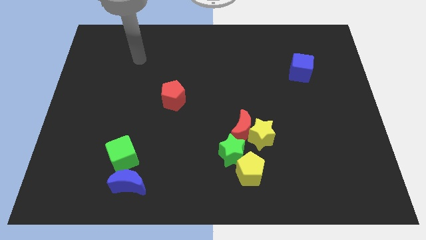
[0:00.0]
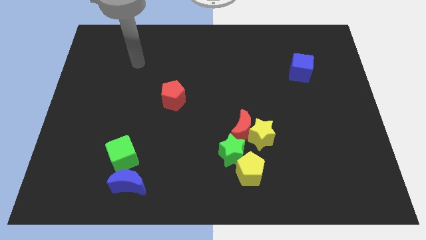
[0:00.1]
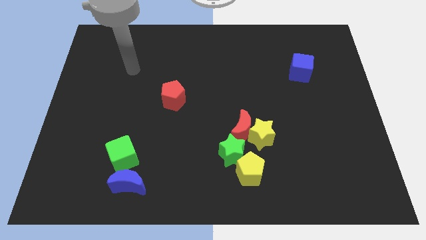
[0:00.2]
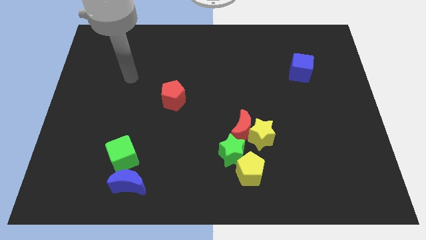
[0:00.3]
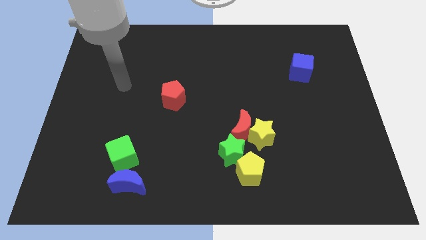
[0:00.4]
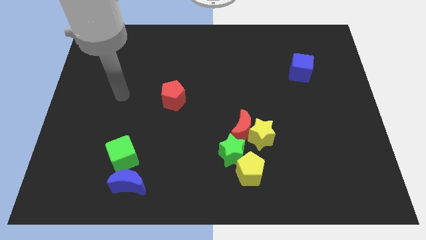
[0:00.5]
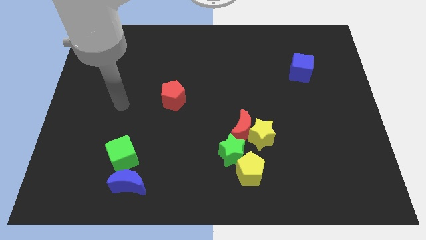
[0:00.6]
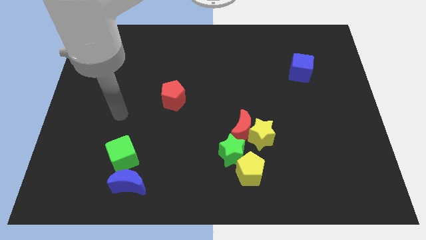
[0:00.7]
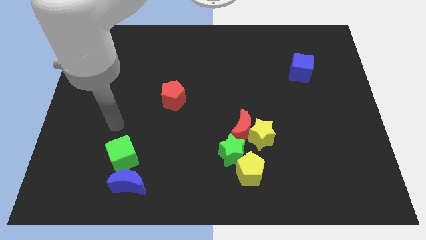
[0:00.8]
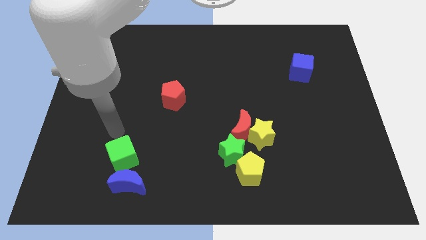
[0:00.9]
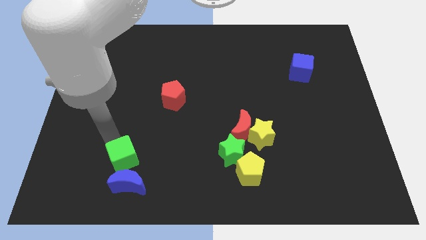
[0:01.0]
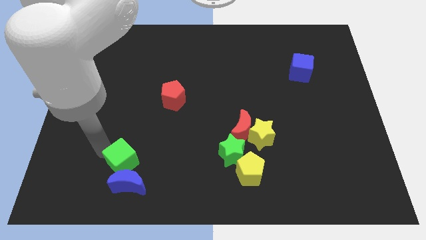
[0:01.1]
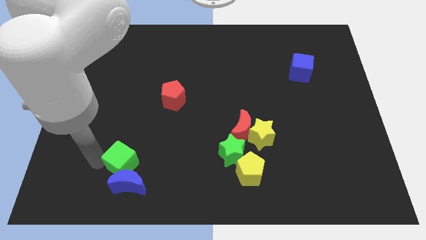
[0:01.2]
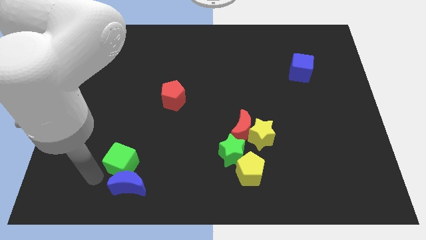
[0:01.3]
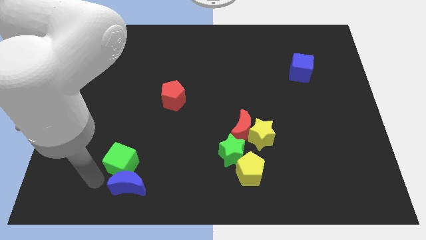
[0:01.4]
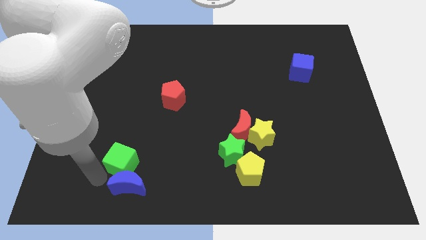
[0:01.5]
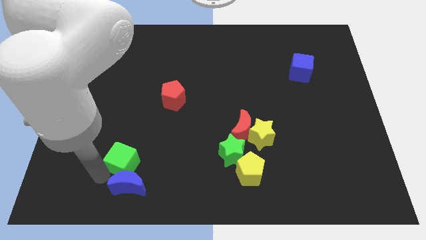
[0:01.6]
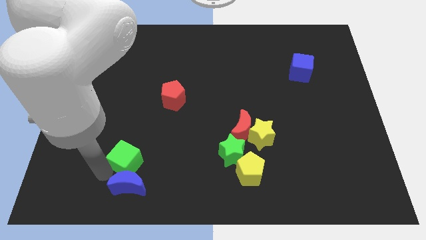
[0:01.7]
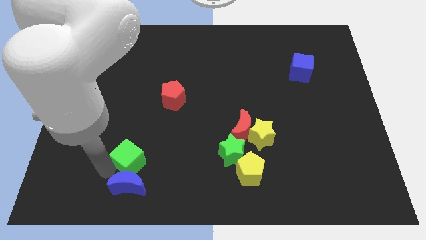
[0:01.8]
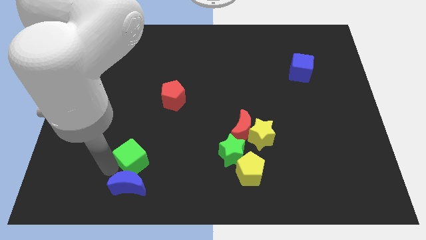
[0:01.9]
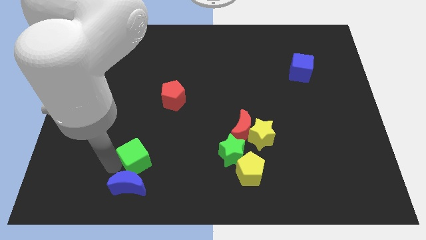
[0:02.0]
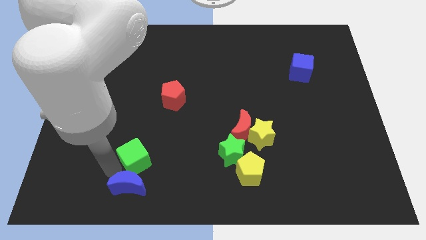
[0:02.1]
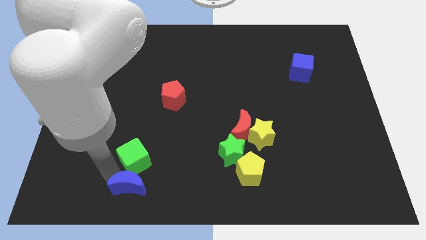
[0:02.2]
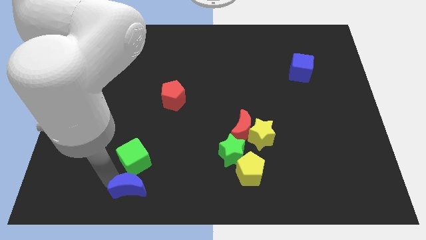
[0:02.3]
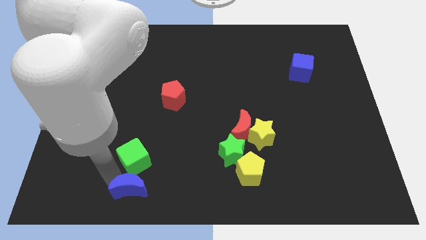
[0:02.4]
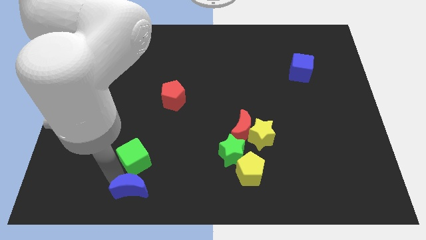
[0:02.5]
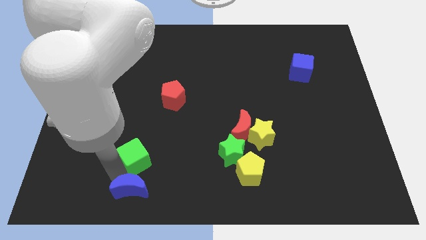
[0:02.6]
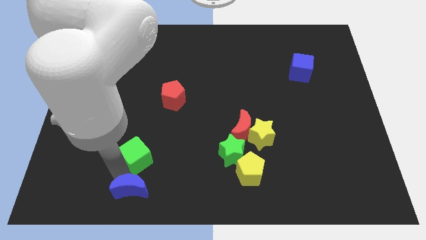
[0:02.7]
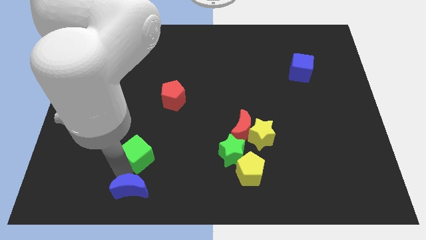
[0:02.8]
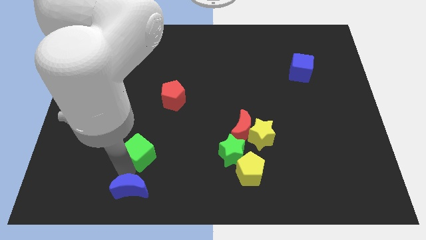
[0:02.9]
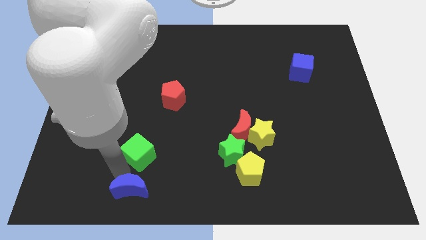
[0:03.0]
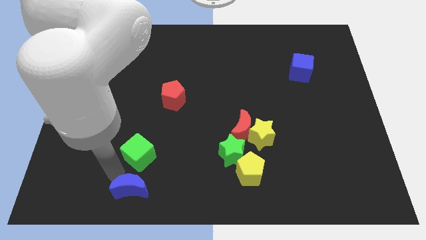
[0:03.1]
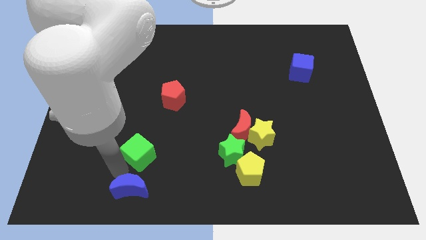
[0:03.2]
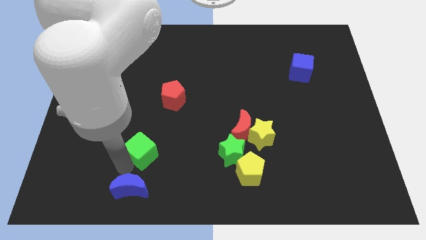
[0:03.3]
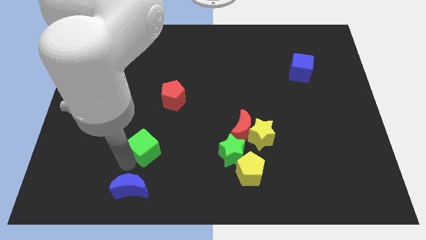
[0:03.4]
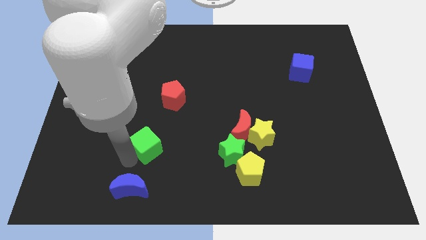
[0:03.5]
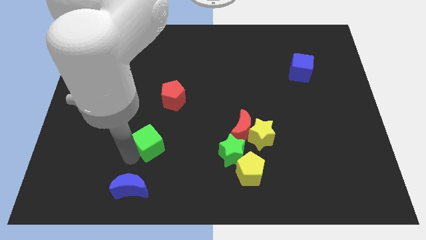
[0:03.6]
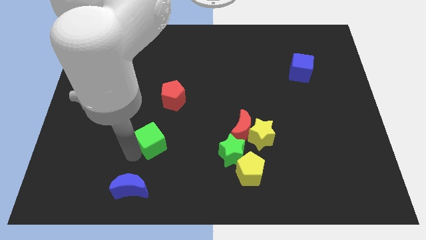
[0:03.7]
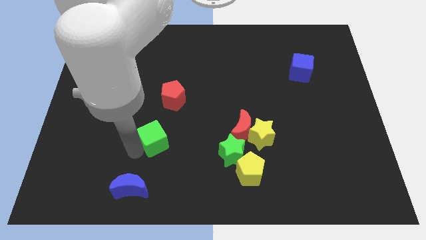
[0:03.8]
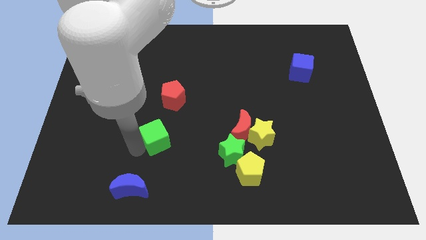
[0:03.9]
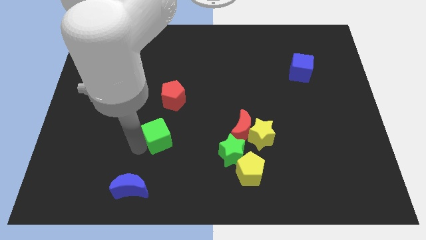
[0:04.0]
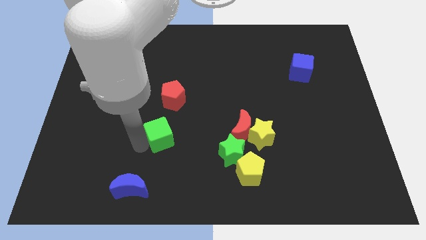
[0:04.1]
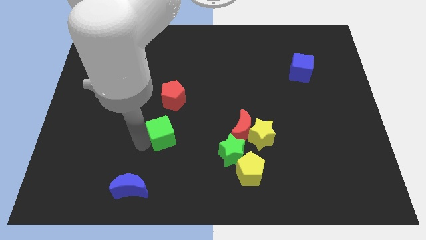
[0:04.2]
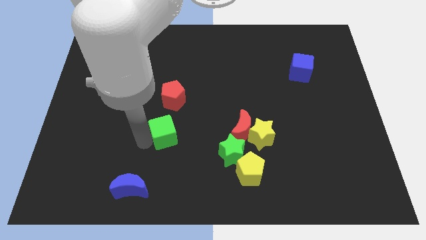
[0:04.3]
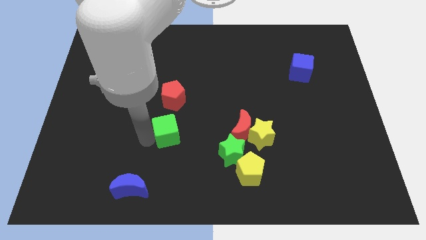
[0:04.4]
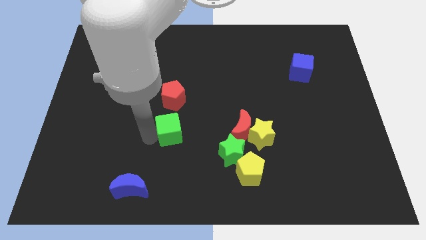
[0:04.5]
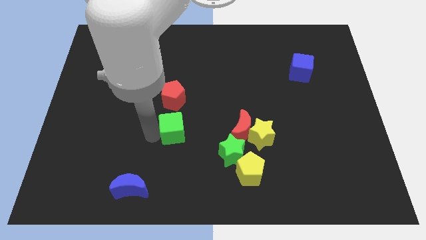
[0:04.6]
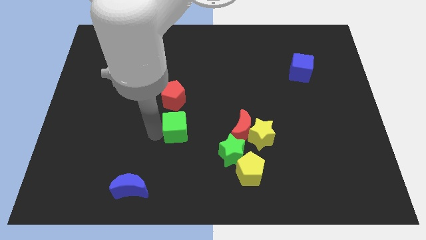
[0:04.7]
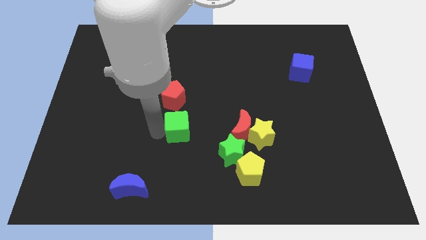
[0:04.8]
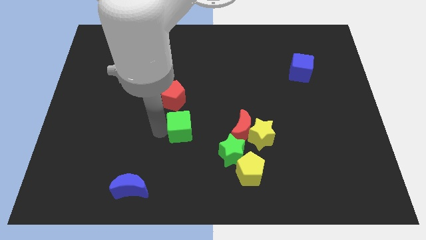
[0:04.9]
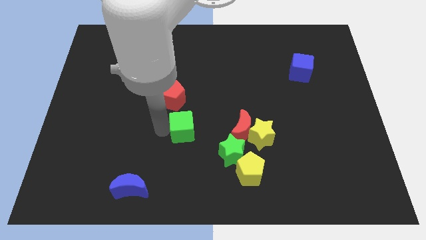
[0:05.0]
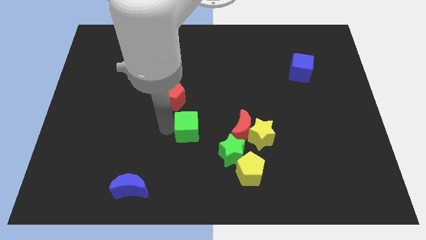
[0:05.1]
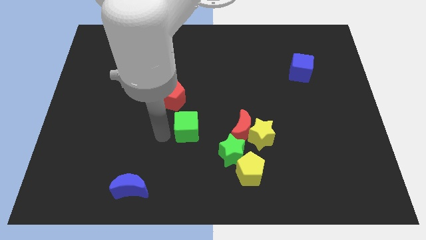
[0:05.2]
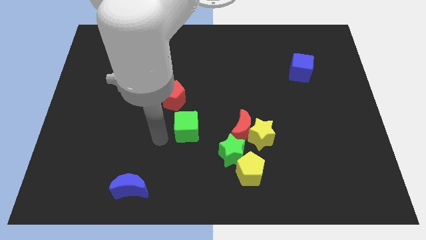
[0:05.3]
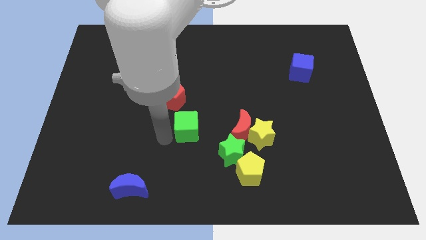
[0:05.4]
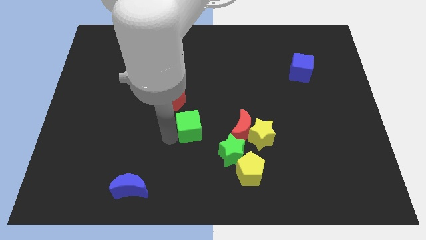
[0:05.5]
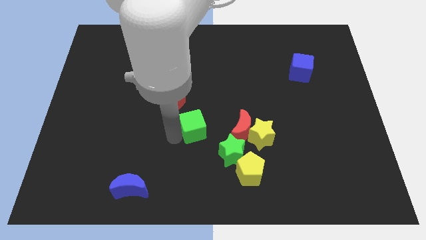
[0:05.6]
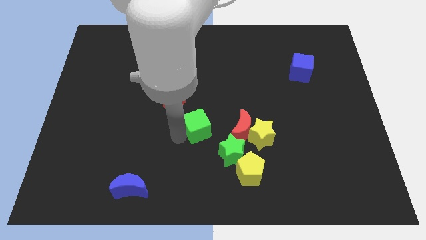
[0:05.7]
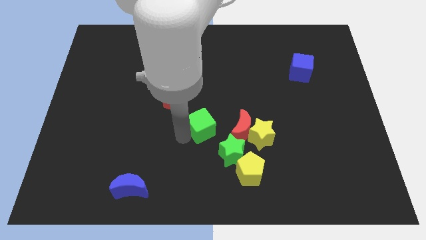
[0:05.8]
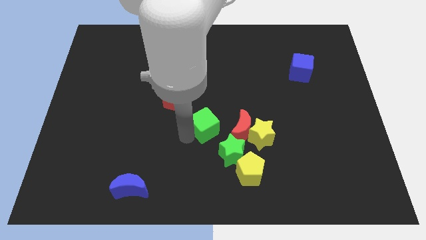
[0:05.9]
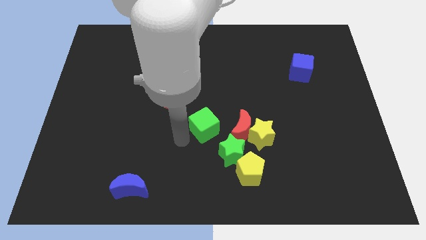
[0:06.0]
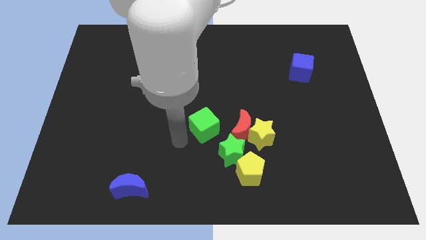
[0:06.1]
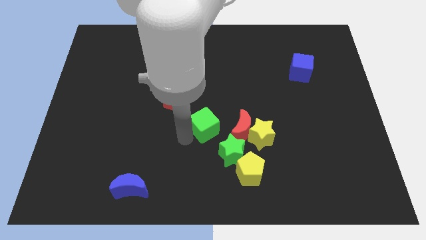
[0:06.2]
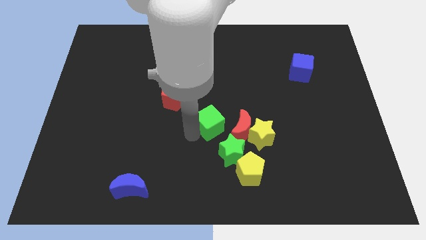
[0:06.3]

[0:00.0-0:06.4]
move the green cube to the top of the green star

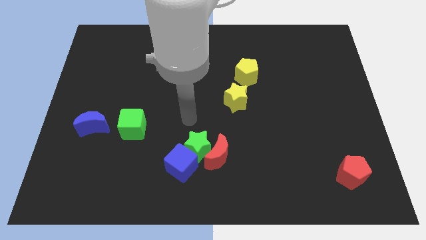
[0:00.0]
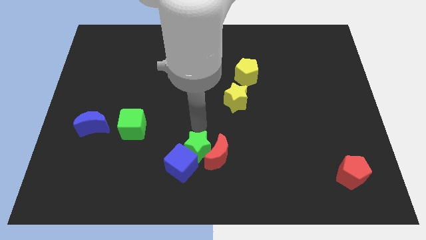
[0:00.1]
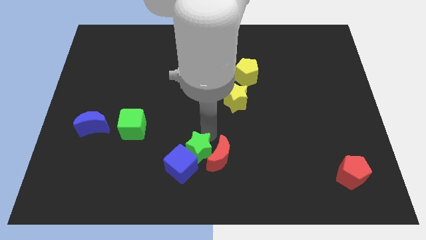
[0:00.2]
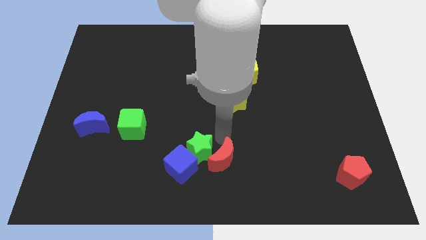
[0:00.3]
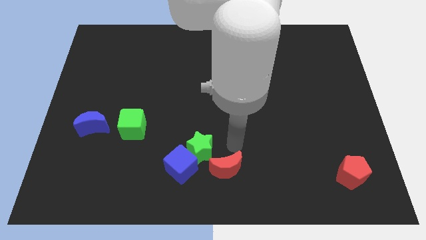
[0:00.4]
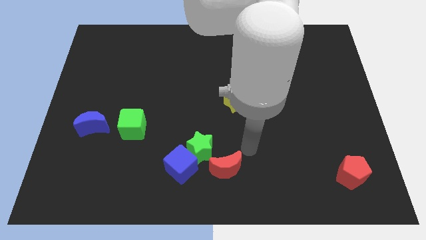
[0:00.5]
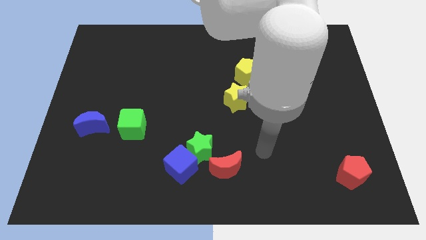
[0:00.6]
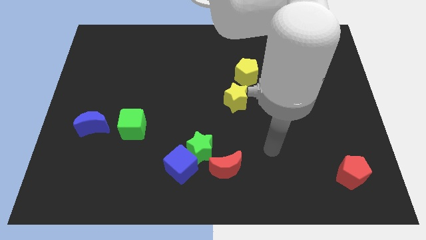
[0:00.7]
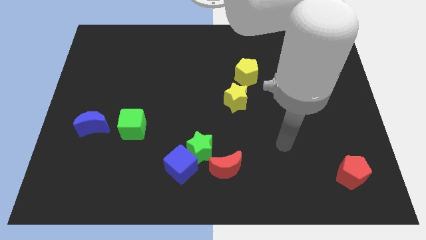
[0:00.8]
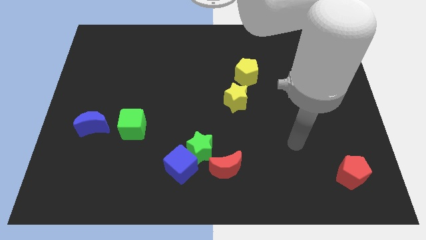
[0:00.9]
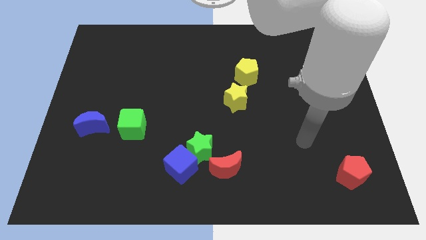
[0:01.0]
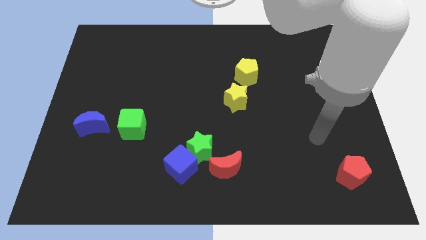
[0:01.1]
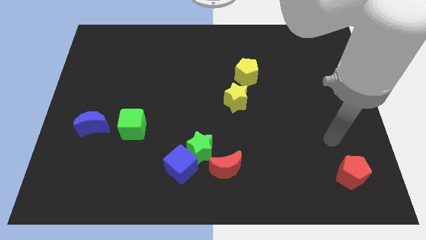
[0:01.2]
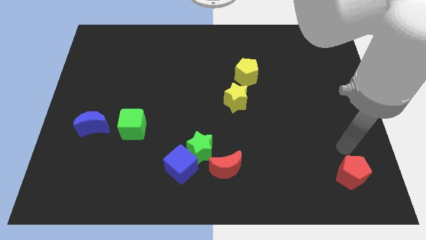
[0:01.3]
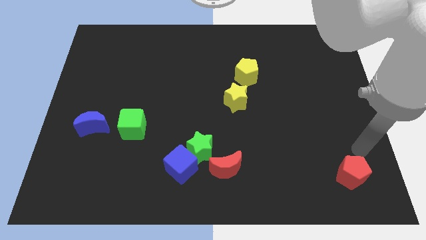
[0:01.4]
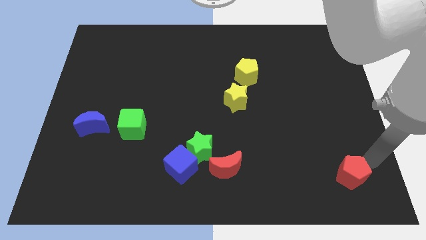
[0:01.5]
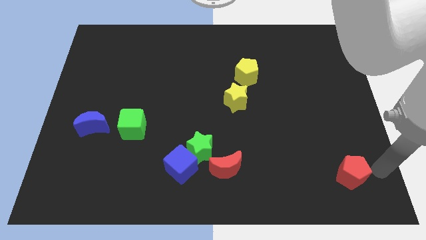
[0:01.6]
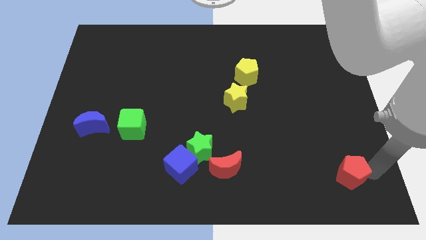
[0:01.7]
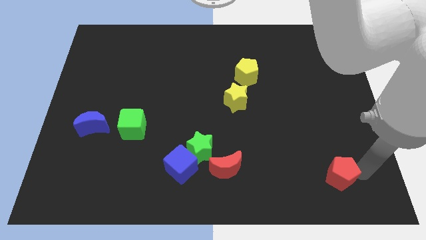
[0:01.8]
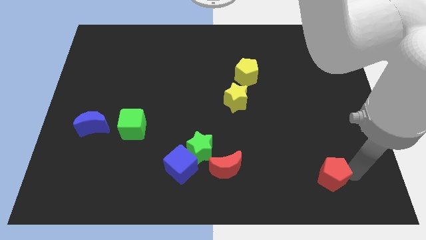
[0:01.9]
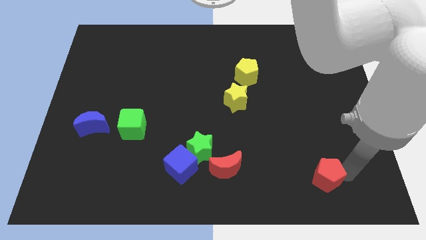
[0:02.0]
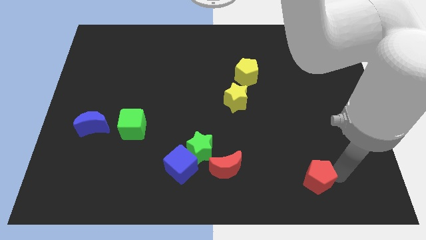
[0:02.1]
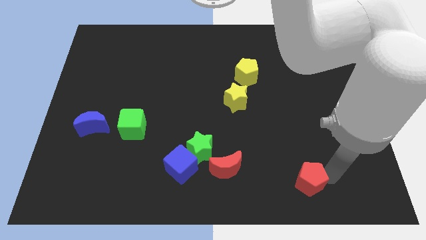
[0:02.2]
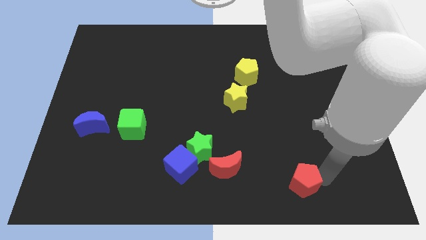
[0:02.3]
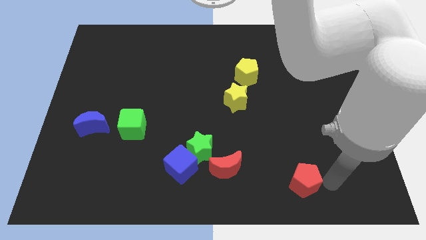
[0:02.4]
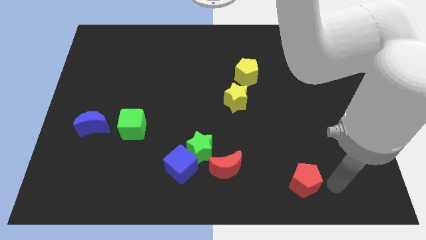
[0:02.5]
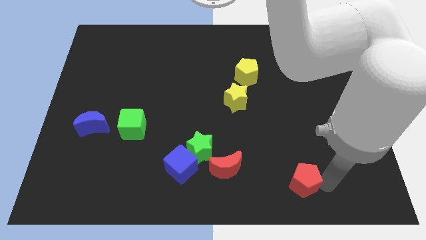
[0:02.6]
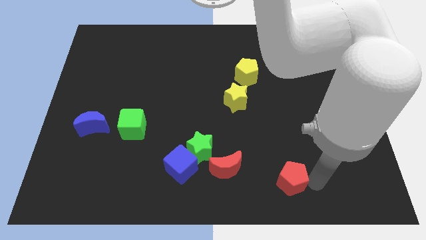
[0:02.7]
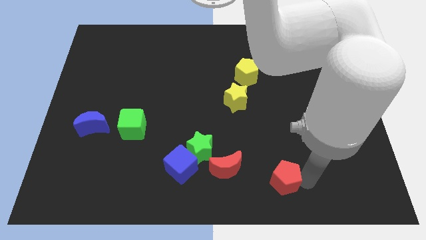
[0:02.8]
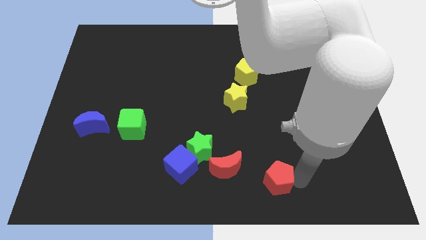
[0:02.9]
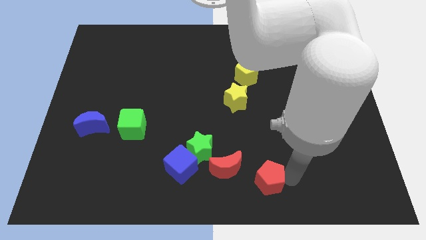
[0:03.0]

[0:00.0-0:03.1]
put the red pentagon to the bottom right of the red moon
